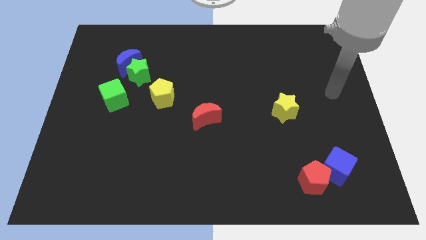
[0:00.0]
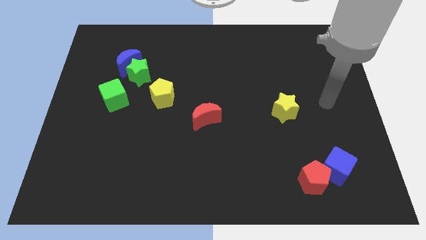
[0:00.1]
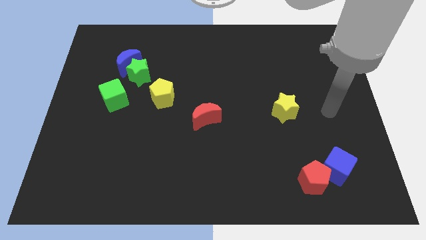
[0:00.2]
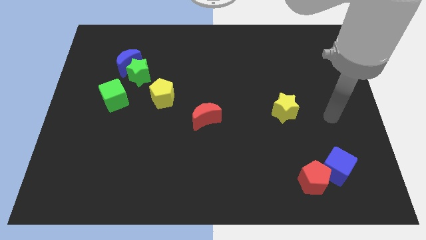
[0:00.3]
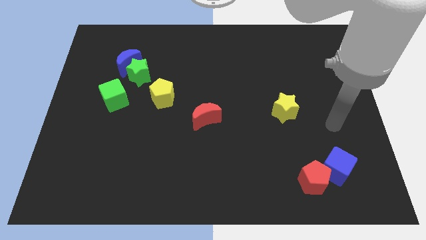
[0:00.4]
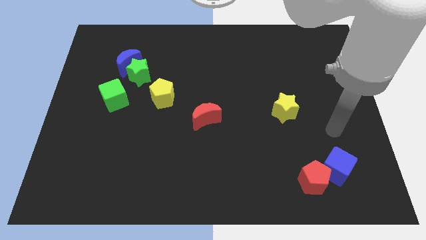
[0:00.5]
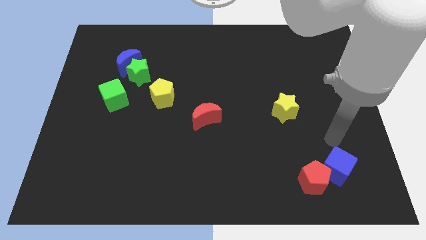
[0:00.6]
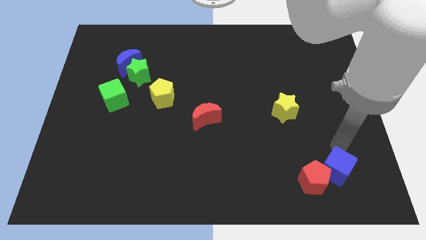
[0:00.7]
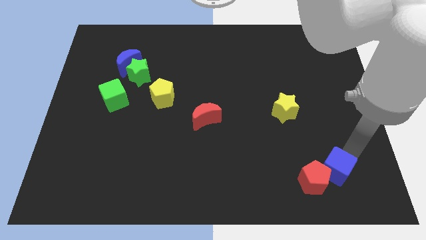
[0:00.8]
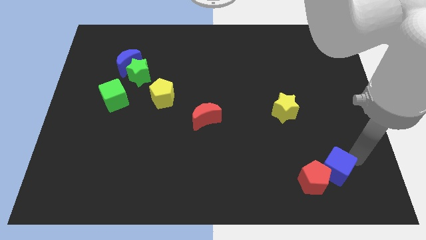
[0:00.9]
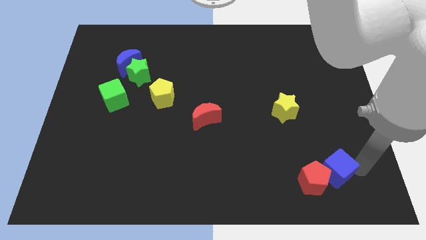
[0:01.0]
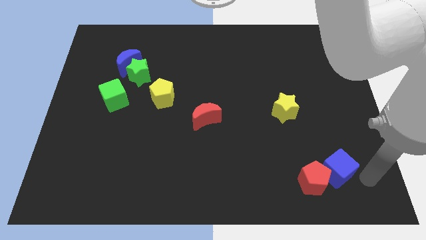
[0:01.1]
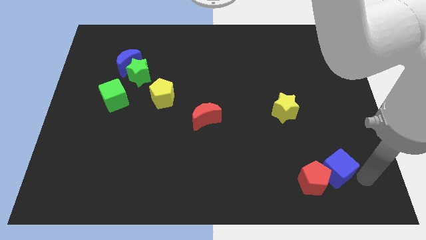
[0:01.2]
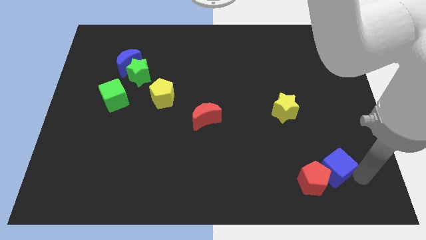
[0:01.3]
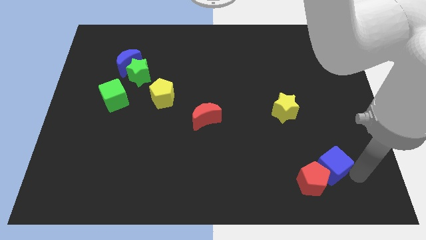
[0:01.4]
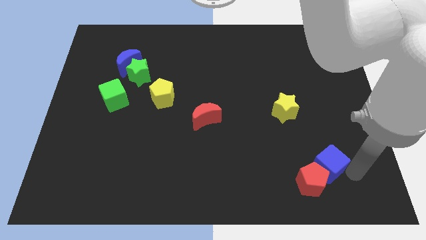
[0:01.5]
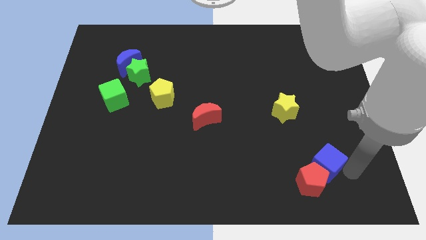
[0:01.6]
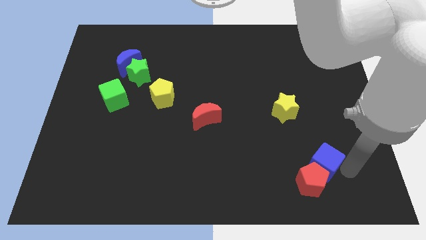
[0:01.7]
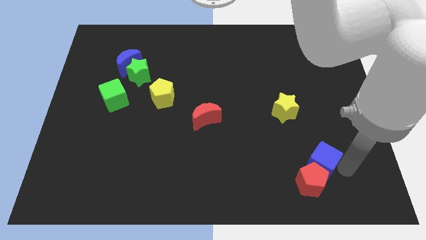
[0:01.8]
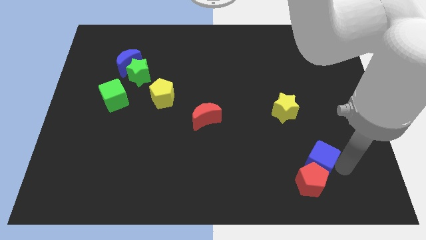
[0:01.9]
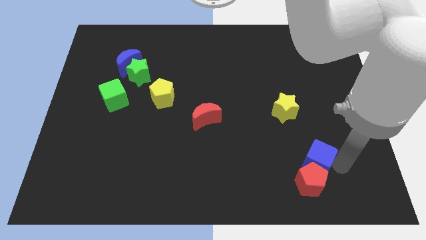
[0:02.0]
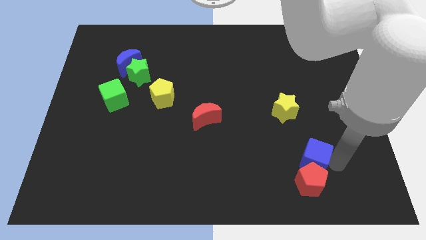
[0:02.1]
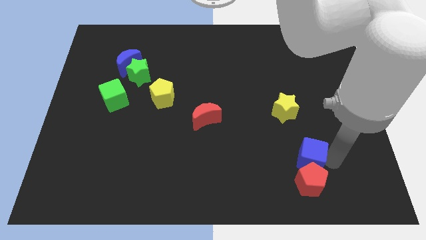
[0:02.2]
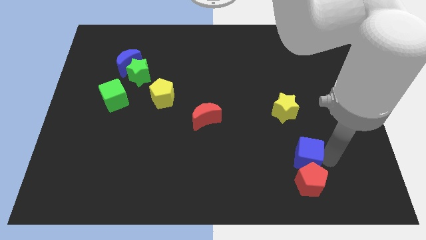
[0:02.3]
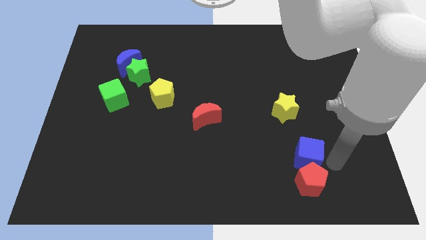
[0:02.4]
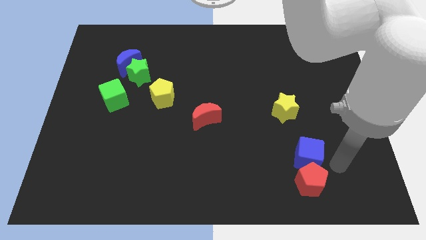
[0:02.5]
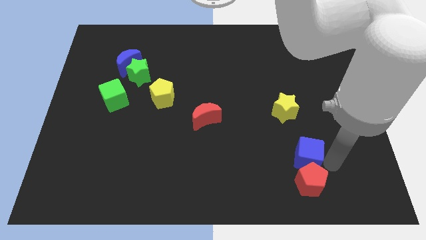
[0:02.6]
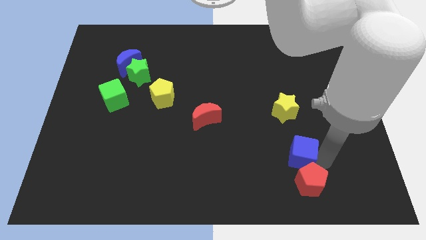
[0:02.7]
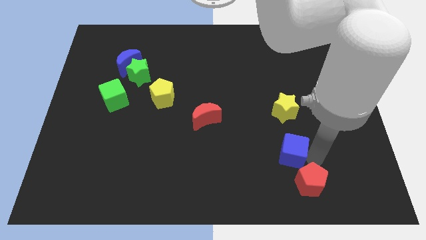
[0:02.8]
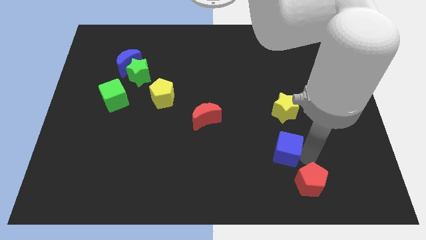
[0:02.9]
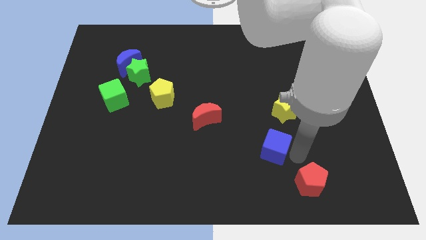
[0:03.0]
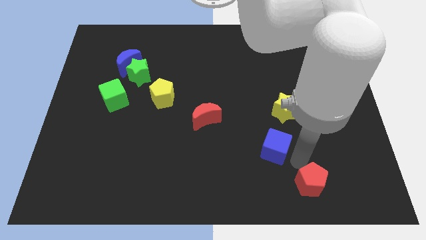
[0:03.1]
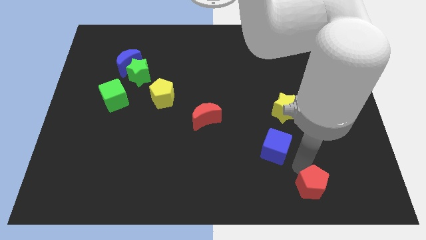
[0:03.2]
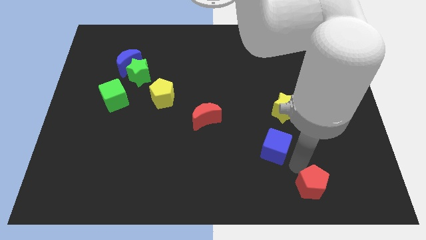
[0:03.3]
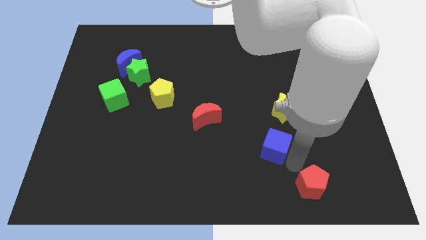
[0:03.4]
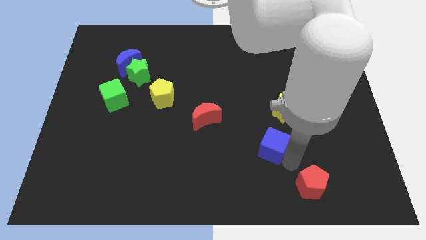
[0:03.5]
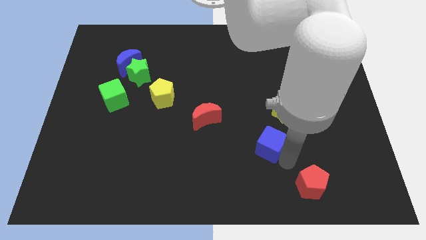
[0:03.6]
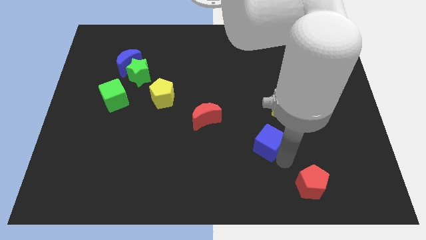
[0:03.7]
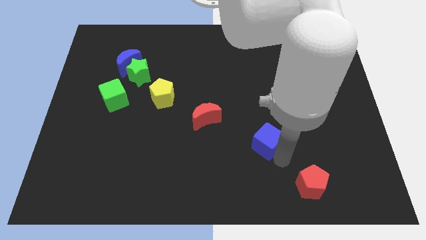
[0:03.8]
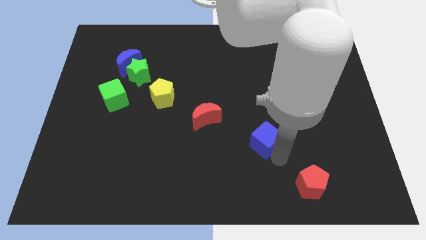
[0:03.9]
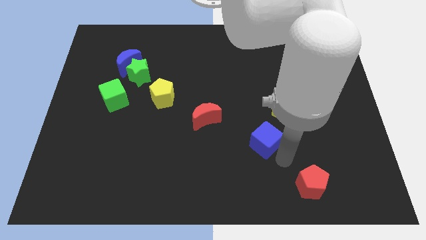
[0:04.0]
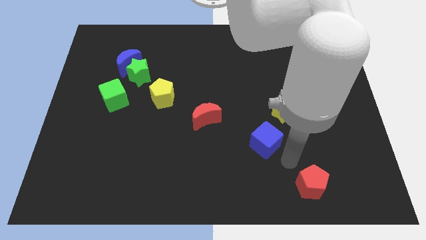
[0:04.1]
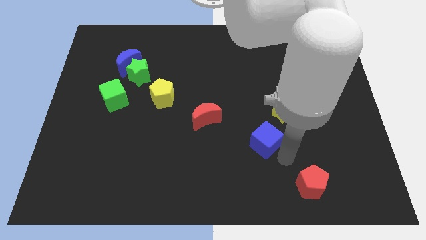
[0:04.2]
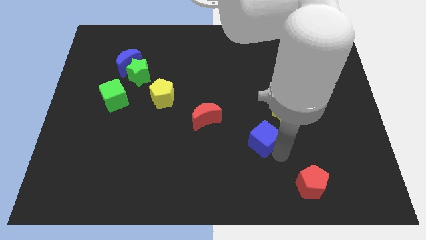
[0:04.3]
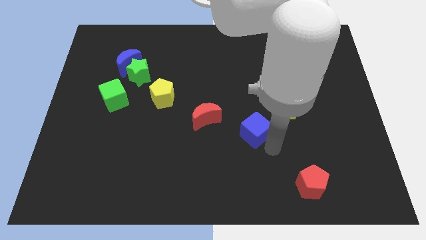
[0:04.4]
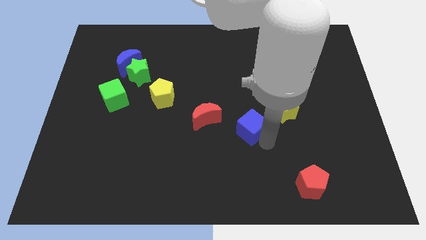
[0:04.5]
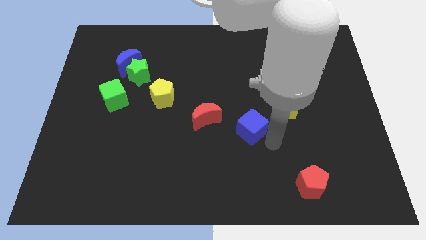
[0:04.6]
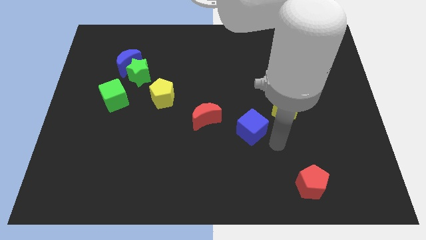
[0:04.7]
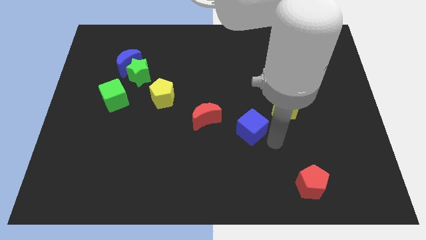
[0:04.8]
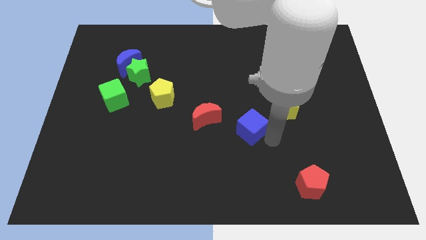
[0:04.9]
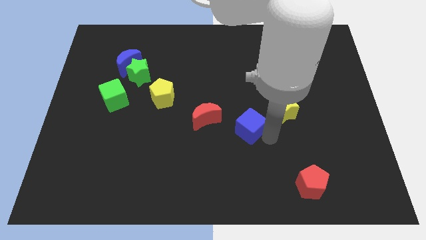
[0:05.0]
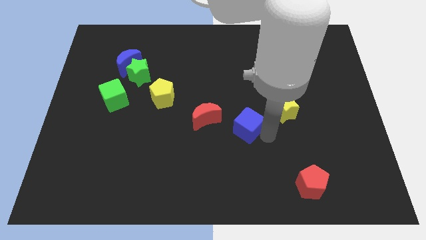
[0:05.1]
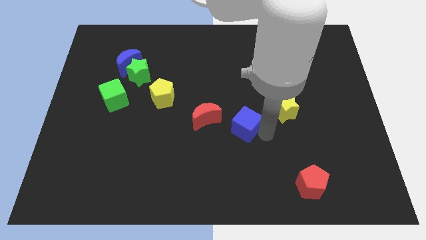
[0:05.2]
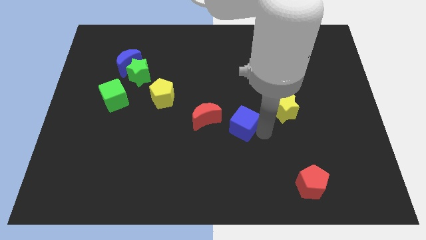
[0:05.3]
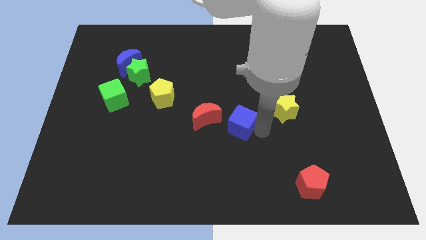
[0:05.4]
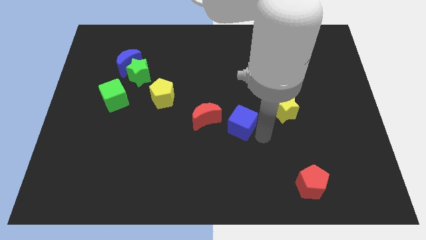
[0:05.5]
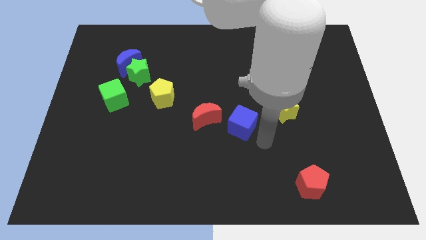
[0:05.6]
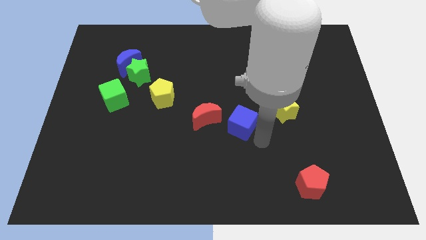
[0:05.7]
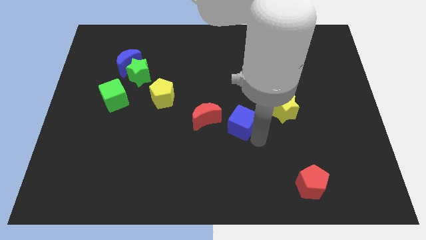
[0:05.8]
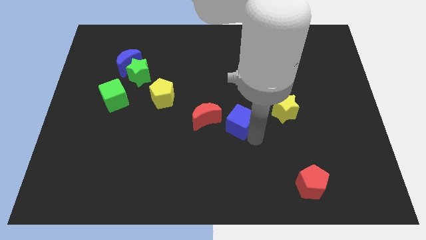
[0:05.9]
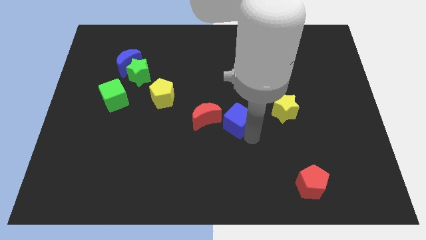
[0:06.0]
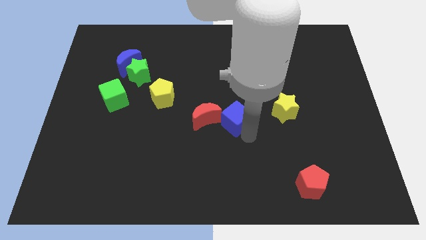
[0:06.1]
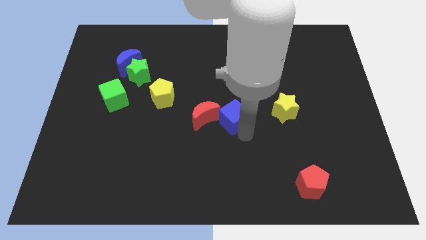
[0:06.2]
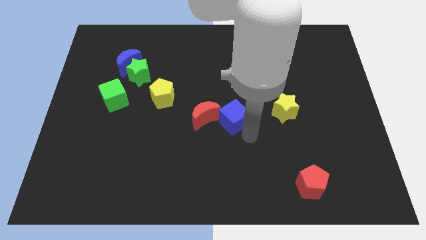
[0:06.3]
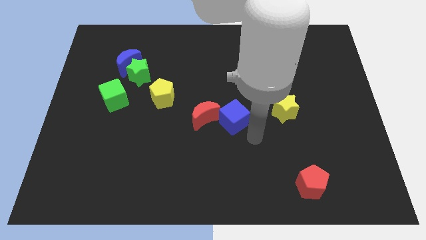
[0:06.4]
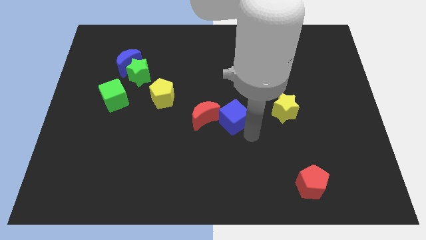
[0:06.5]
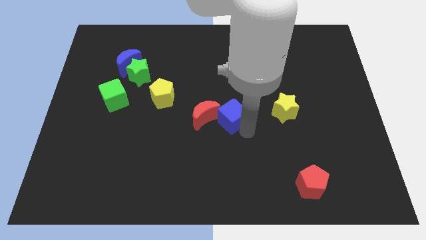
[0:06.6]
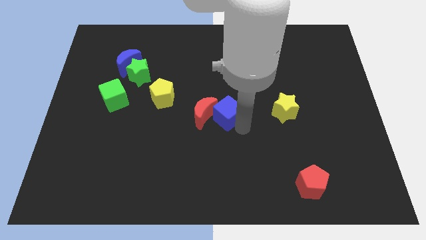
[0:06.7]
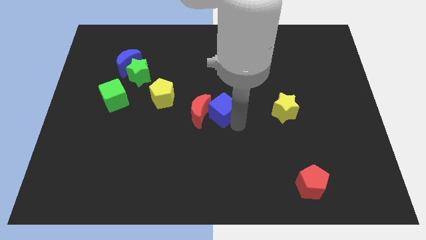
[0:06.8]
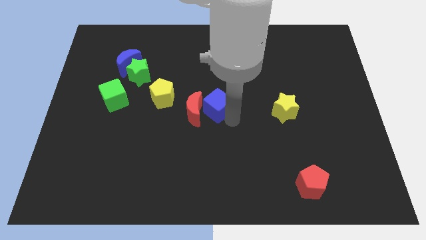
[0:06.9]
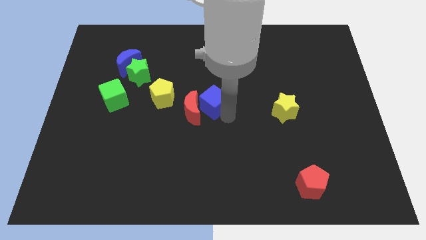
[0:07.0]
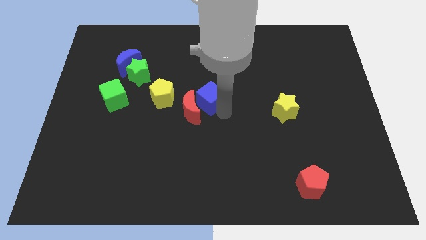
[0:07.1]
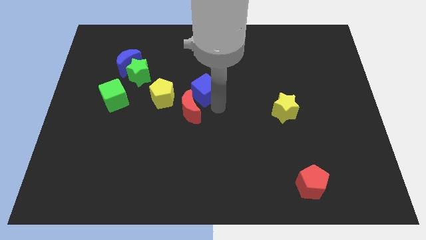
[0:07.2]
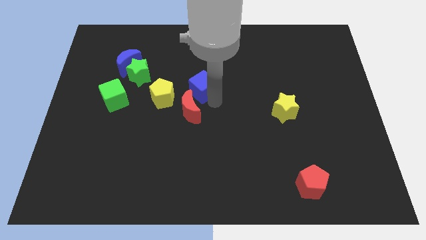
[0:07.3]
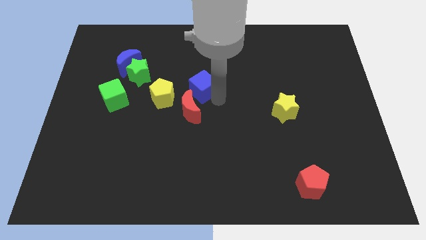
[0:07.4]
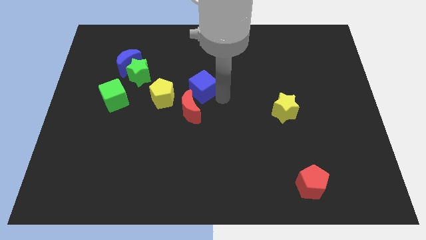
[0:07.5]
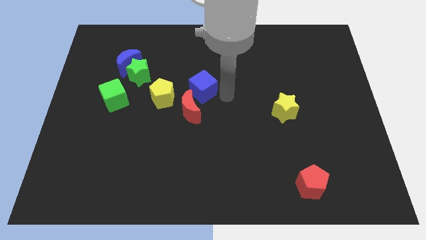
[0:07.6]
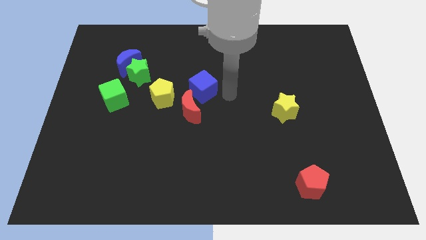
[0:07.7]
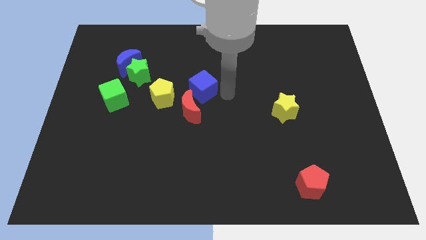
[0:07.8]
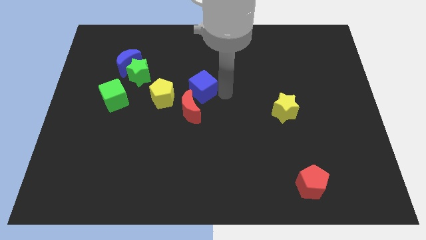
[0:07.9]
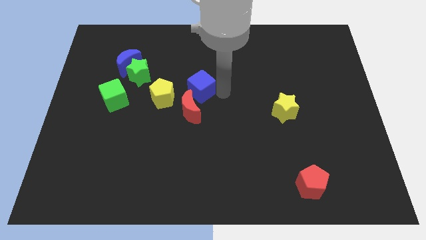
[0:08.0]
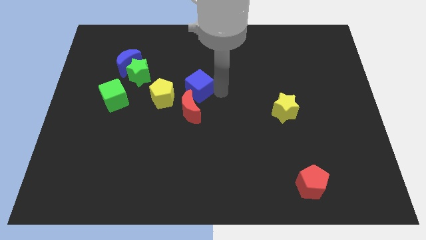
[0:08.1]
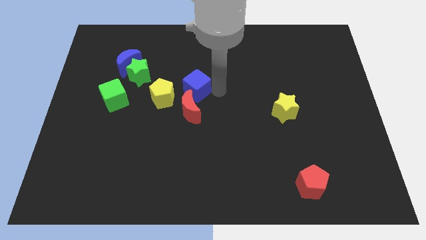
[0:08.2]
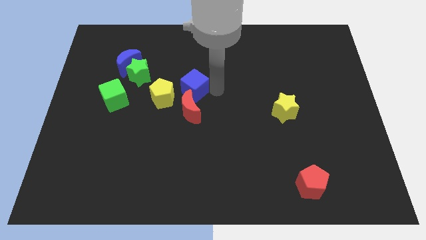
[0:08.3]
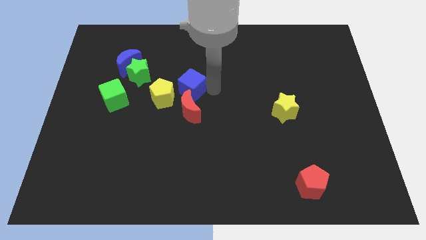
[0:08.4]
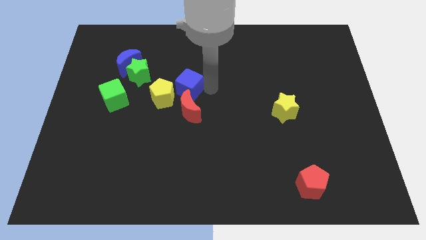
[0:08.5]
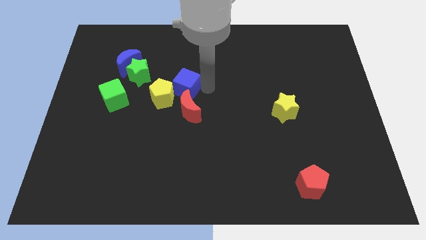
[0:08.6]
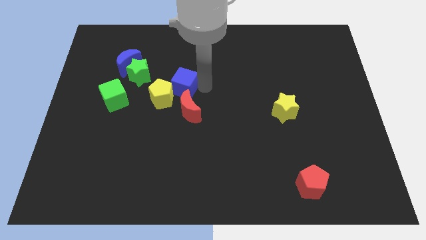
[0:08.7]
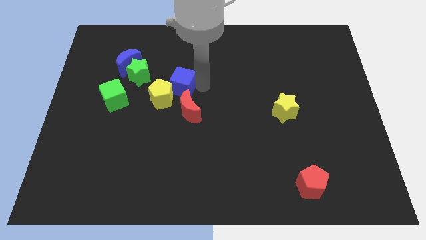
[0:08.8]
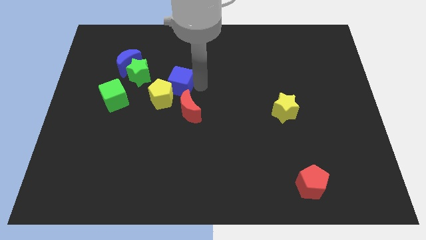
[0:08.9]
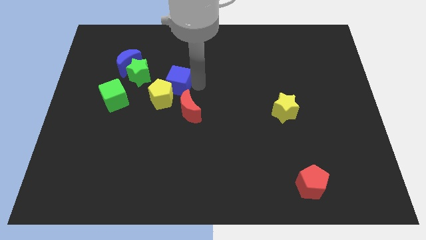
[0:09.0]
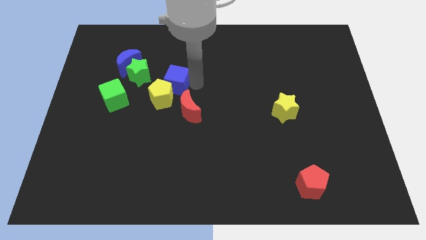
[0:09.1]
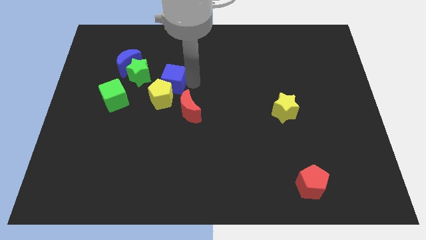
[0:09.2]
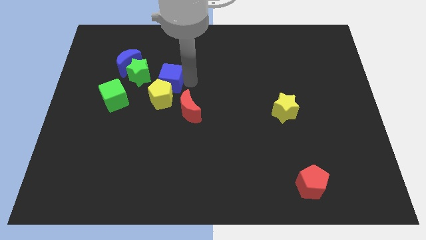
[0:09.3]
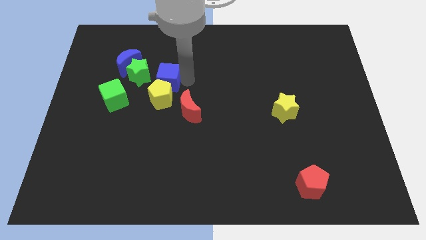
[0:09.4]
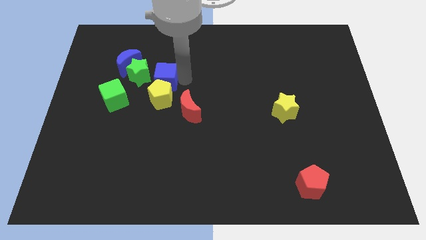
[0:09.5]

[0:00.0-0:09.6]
move the blue cube diagonally down and to the right of the blue moon
